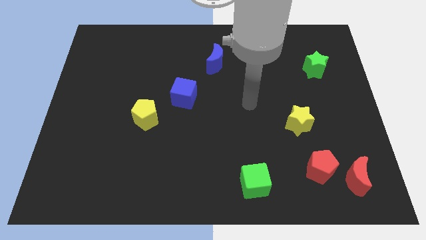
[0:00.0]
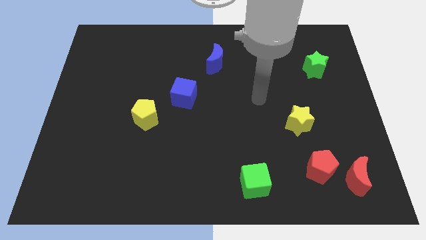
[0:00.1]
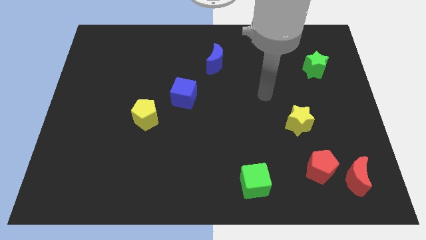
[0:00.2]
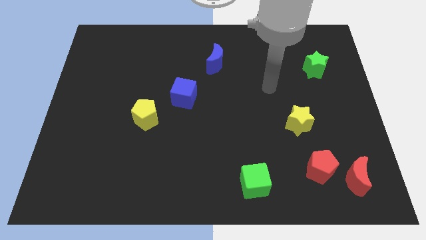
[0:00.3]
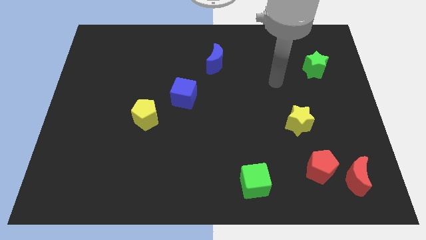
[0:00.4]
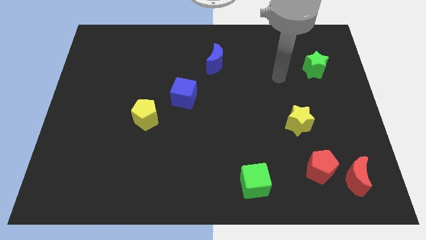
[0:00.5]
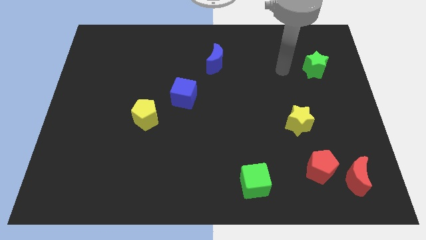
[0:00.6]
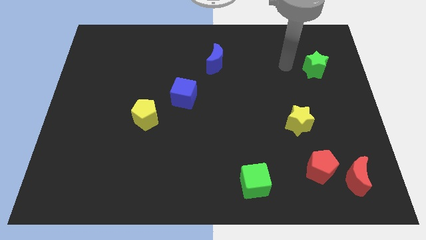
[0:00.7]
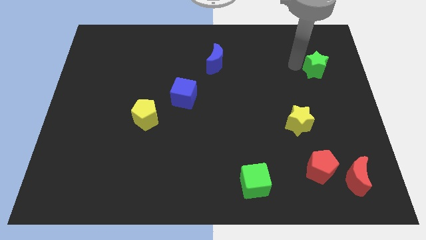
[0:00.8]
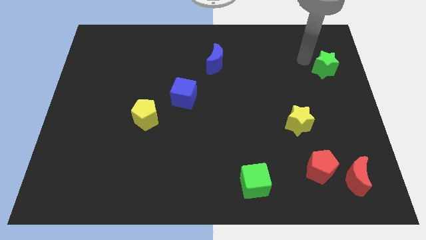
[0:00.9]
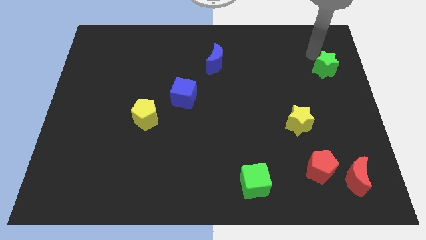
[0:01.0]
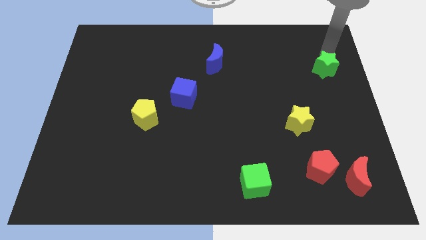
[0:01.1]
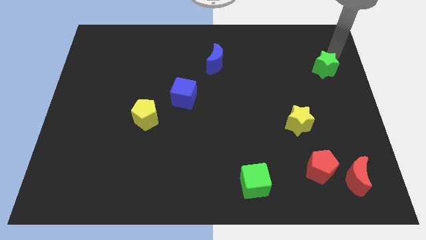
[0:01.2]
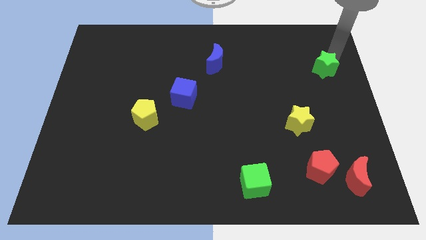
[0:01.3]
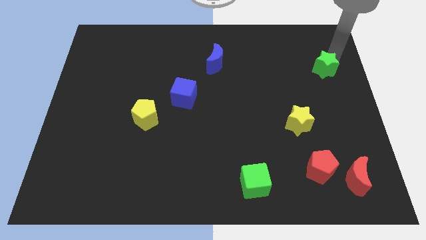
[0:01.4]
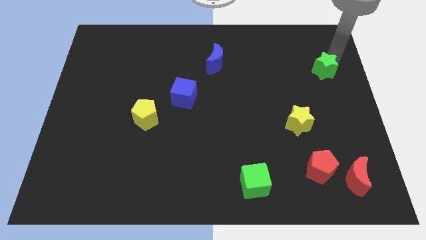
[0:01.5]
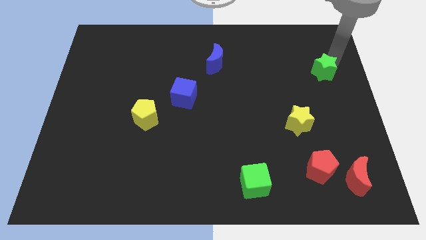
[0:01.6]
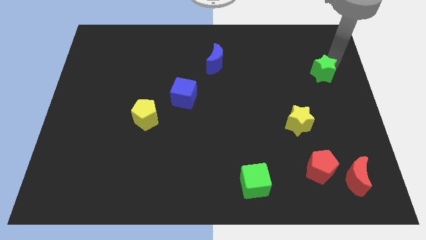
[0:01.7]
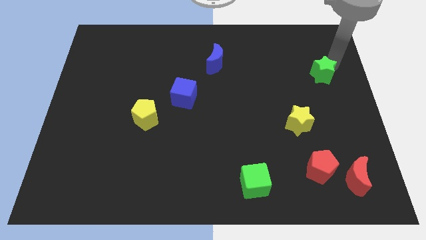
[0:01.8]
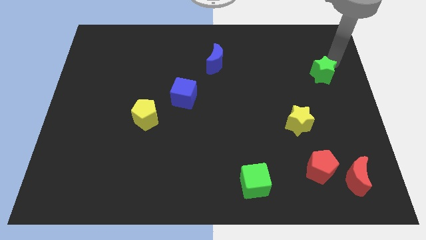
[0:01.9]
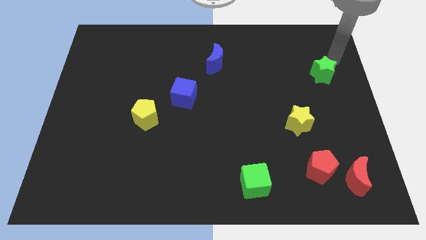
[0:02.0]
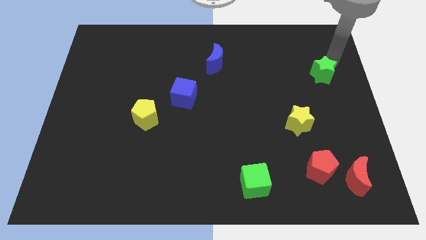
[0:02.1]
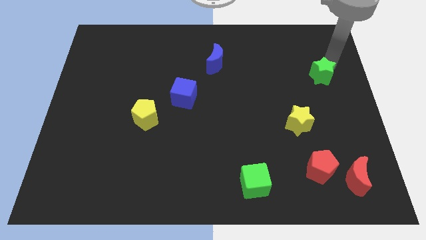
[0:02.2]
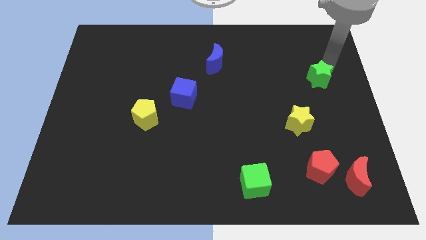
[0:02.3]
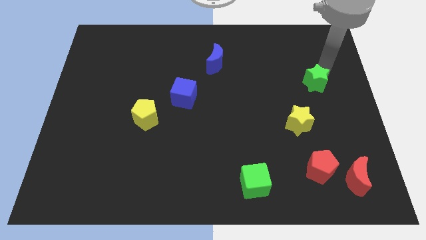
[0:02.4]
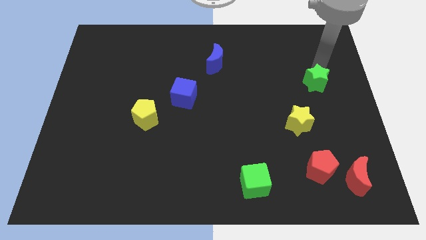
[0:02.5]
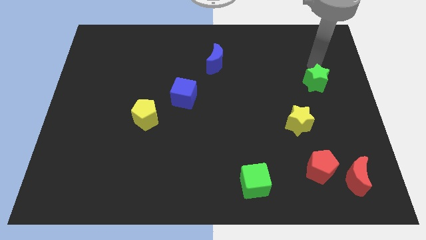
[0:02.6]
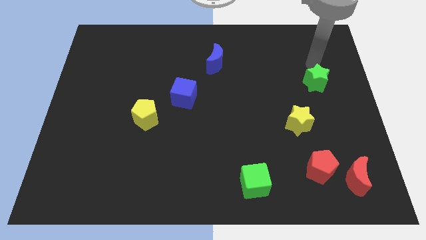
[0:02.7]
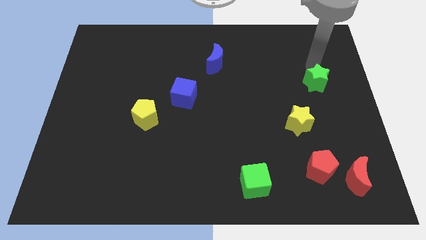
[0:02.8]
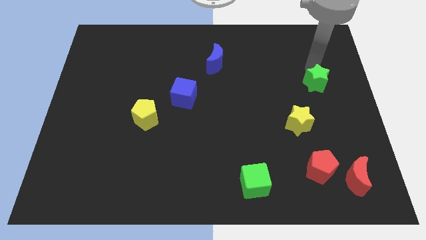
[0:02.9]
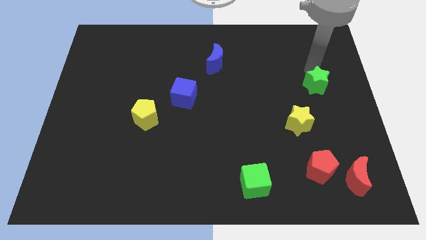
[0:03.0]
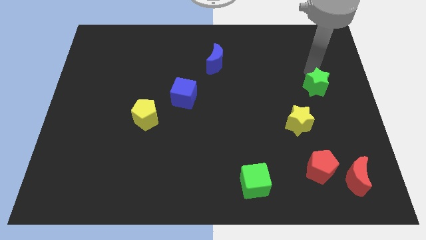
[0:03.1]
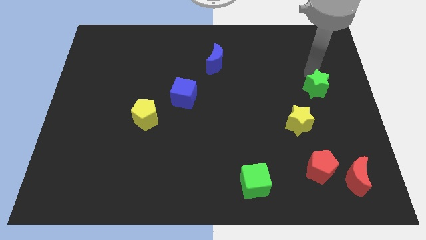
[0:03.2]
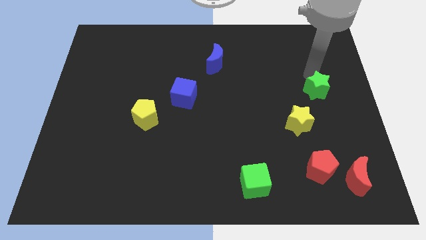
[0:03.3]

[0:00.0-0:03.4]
slide the green star somewhat down

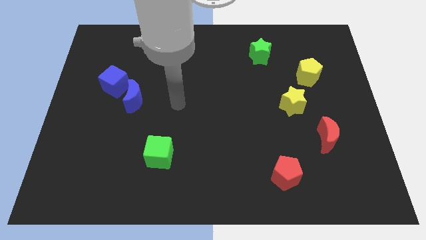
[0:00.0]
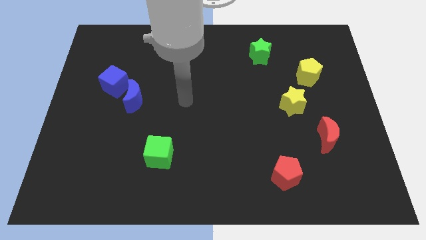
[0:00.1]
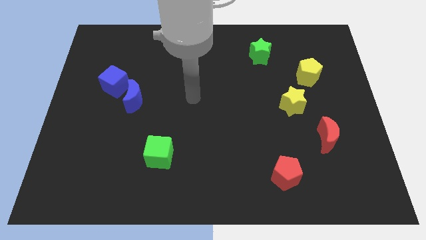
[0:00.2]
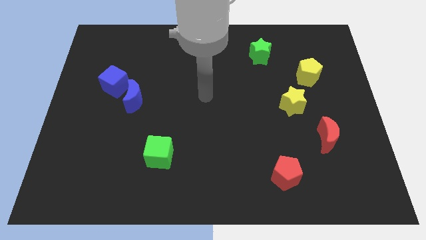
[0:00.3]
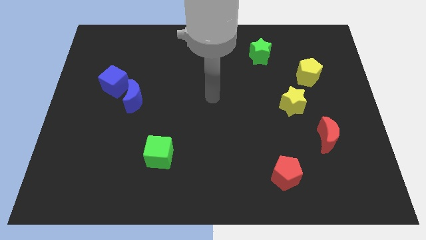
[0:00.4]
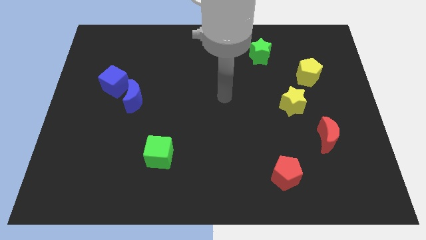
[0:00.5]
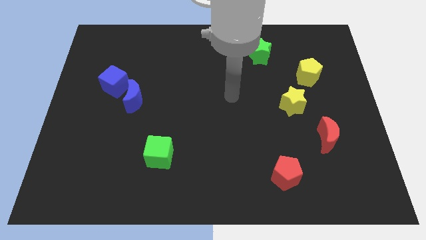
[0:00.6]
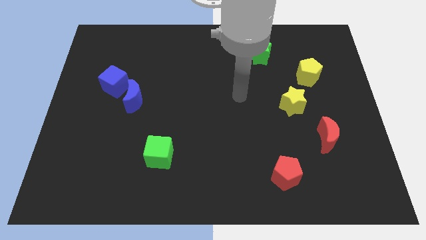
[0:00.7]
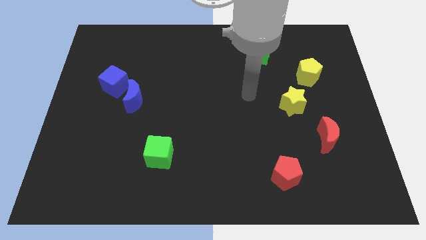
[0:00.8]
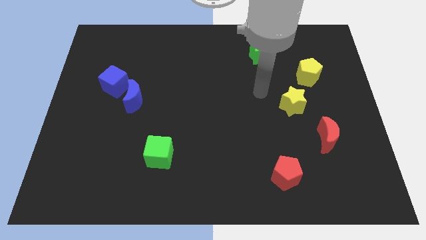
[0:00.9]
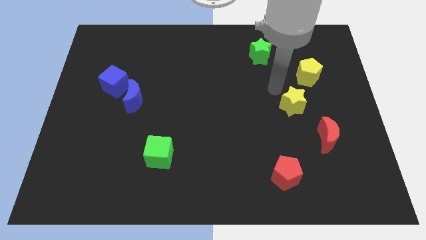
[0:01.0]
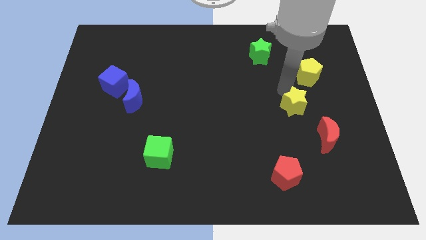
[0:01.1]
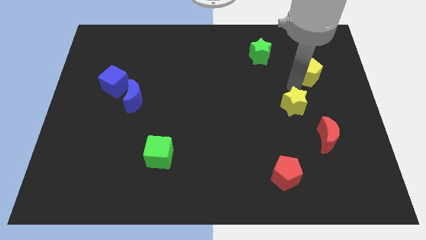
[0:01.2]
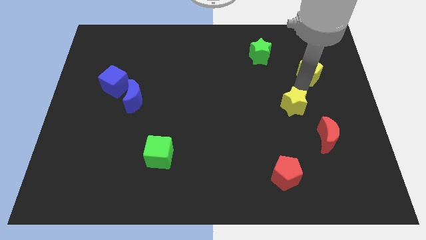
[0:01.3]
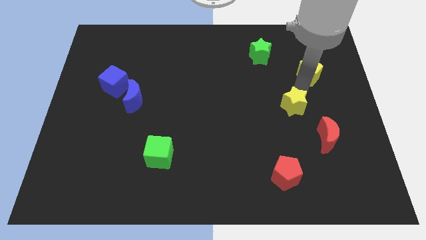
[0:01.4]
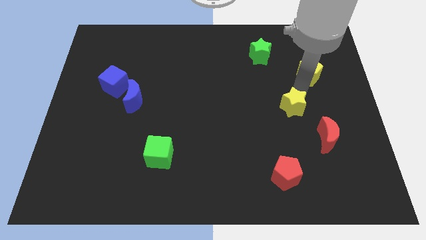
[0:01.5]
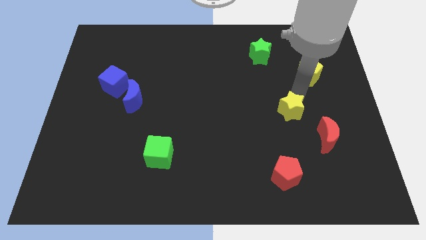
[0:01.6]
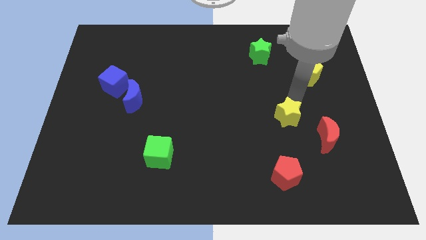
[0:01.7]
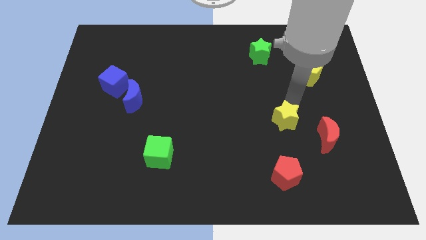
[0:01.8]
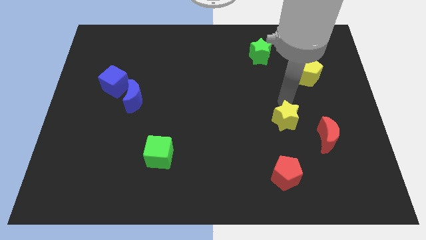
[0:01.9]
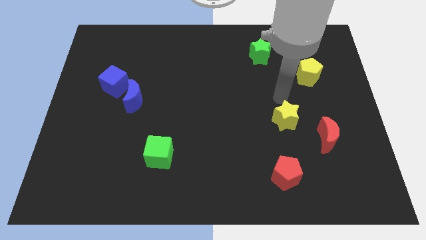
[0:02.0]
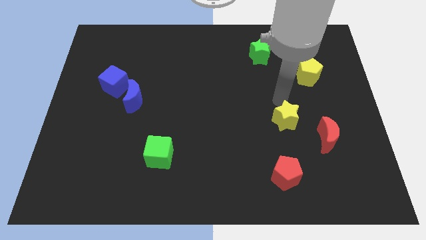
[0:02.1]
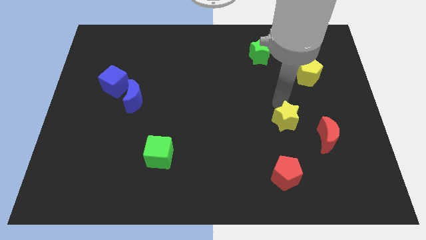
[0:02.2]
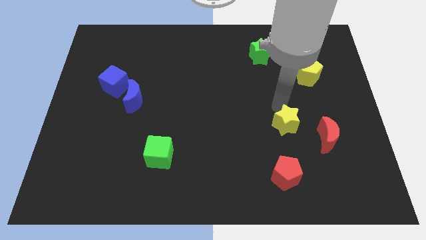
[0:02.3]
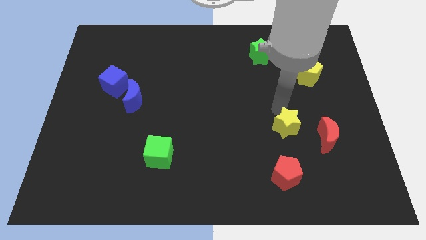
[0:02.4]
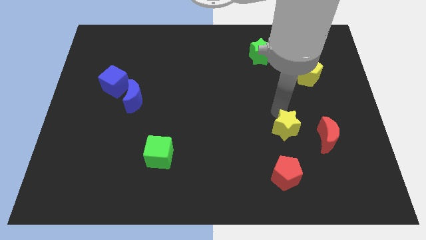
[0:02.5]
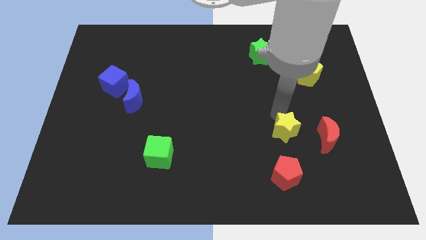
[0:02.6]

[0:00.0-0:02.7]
move the yellow star a bit downwards

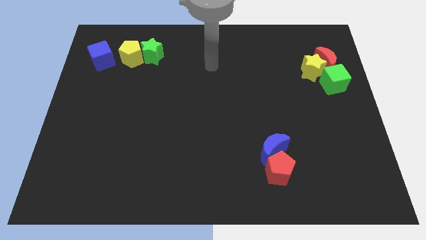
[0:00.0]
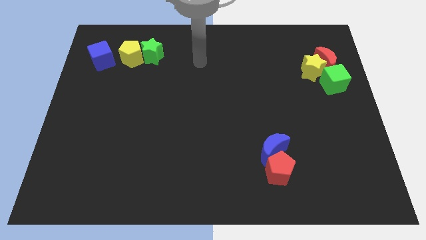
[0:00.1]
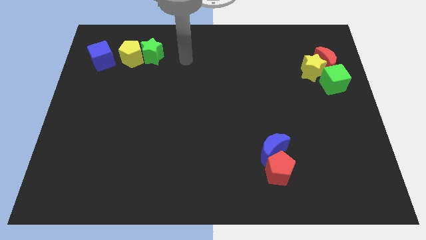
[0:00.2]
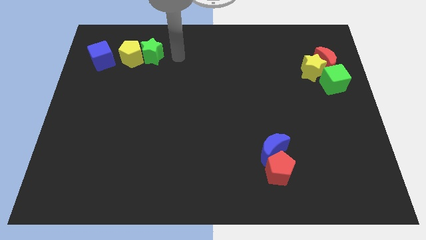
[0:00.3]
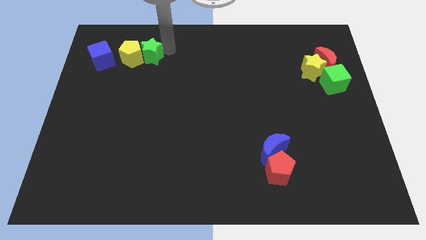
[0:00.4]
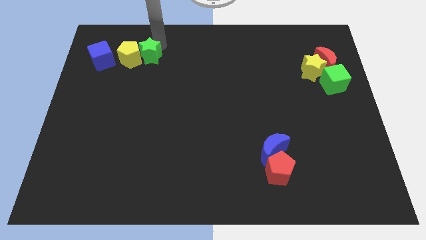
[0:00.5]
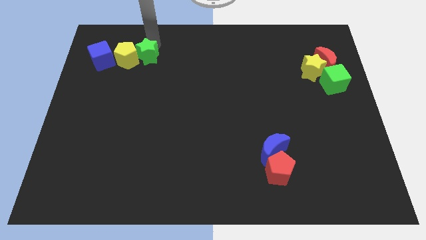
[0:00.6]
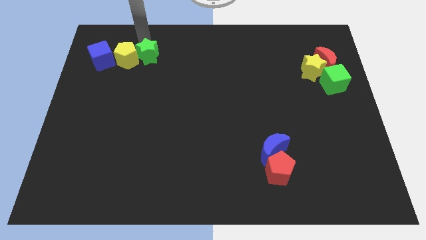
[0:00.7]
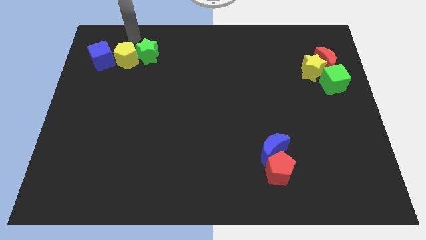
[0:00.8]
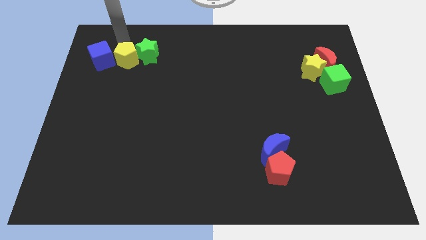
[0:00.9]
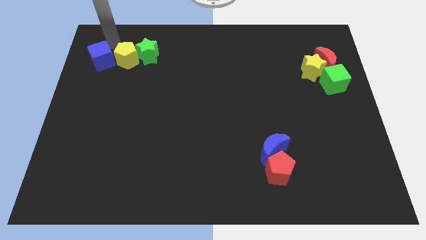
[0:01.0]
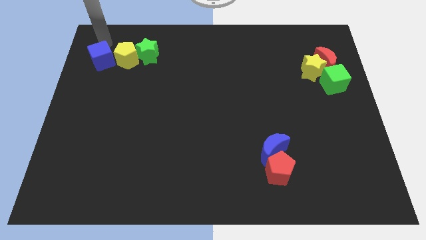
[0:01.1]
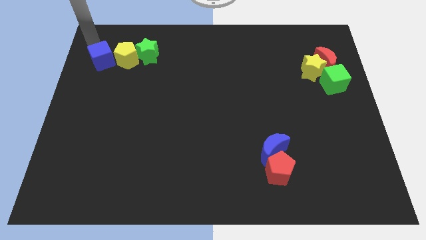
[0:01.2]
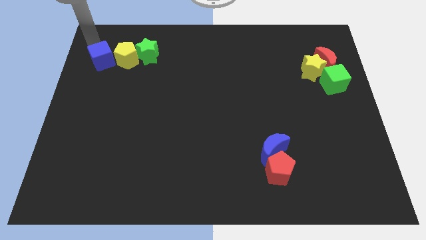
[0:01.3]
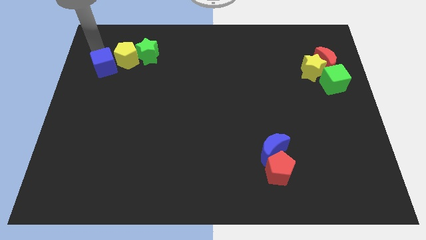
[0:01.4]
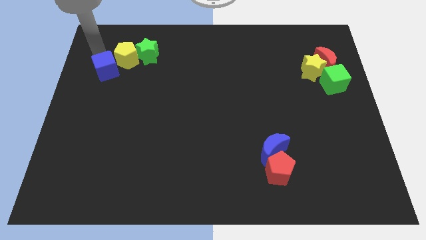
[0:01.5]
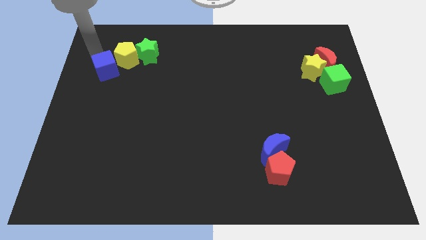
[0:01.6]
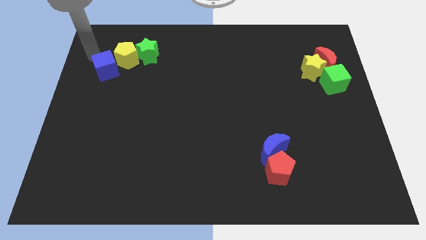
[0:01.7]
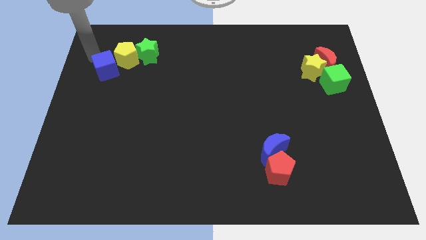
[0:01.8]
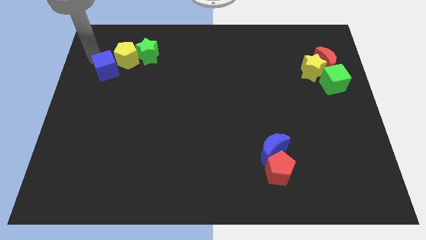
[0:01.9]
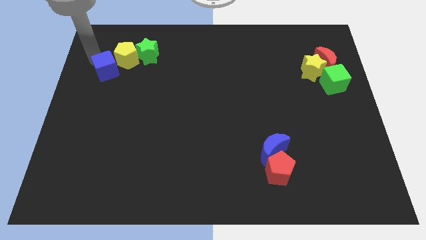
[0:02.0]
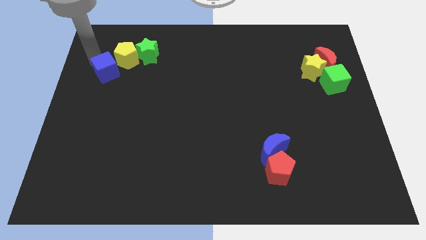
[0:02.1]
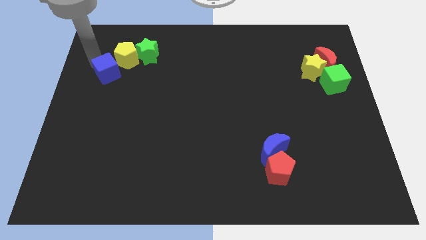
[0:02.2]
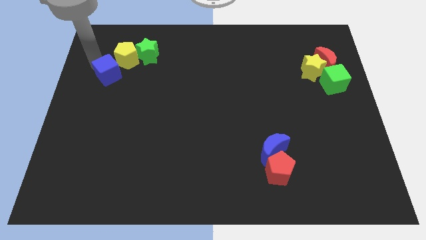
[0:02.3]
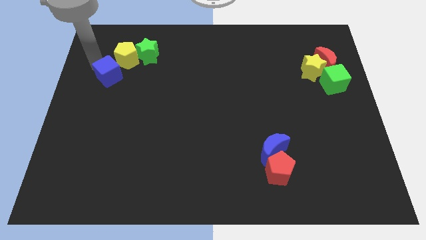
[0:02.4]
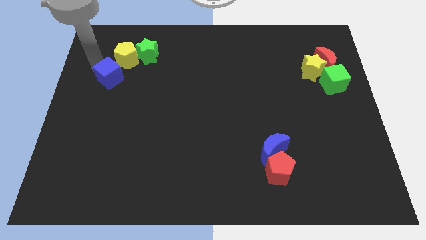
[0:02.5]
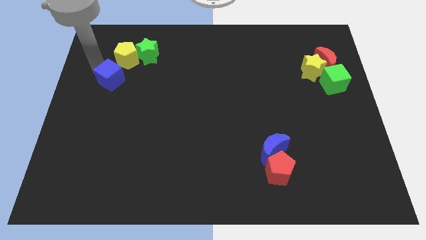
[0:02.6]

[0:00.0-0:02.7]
slide the blue cube slightly downwards and right
